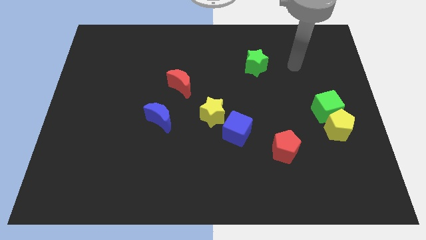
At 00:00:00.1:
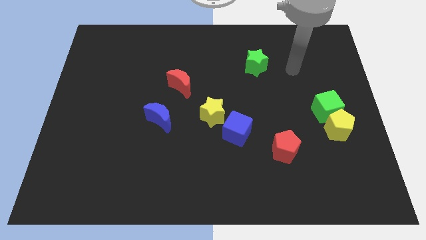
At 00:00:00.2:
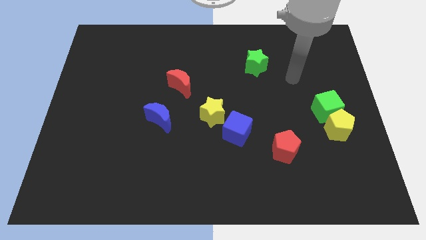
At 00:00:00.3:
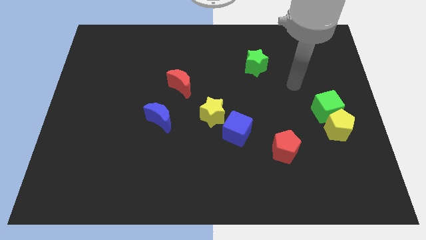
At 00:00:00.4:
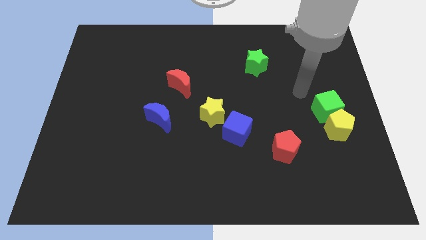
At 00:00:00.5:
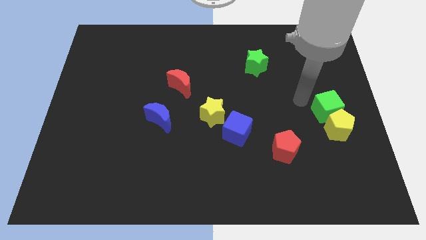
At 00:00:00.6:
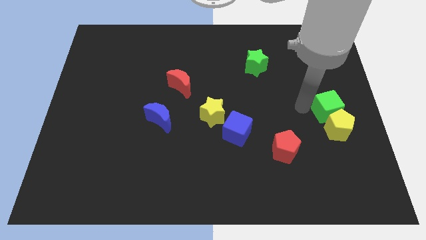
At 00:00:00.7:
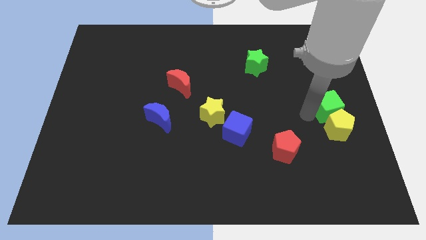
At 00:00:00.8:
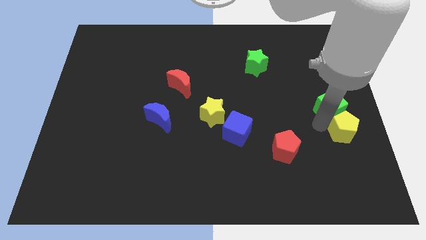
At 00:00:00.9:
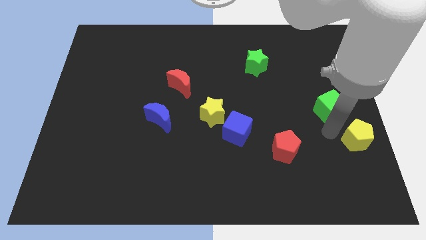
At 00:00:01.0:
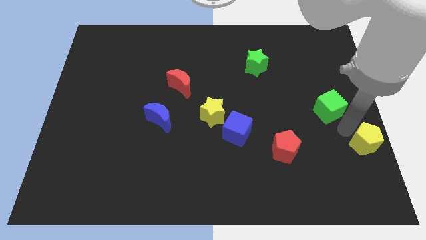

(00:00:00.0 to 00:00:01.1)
move the green cube away from the yellow pentagon

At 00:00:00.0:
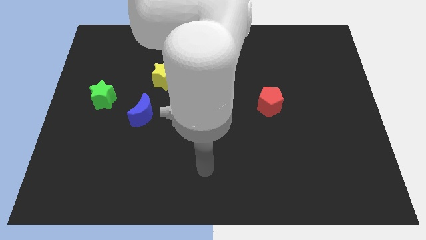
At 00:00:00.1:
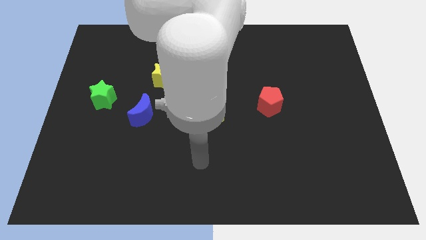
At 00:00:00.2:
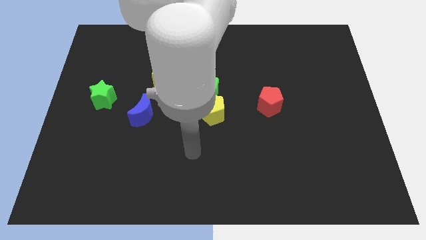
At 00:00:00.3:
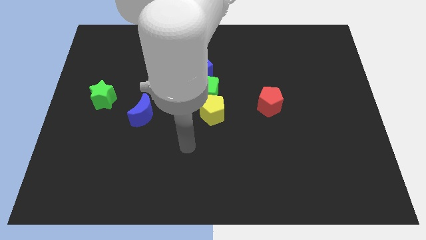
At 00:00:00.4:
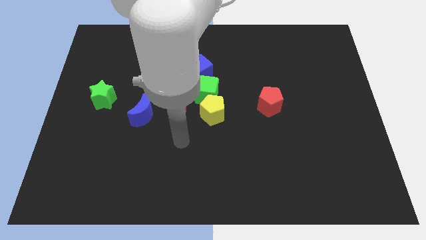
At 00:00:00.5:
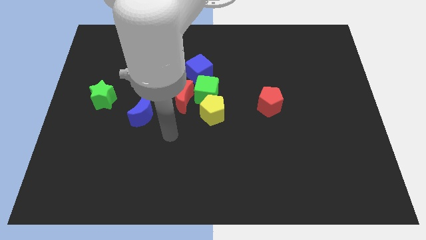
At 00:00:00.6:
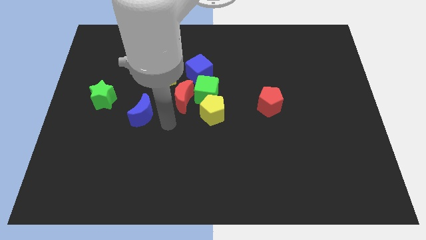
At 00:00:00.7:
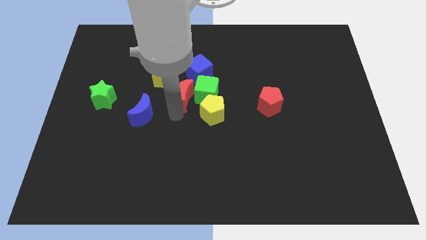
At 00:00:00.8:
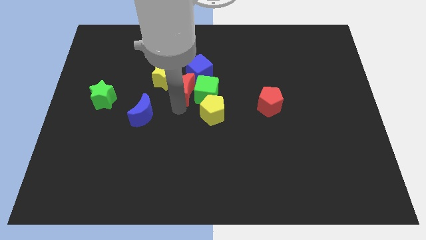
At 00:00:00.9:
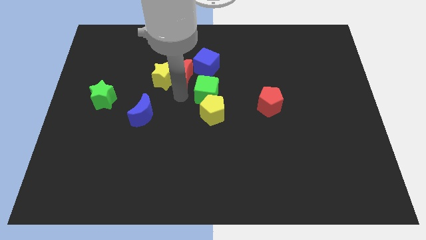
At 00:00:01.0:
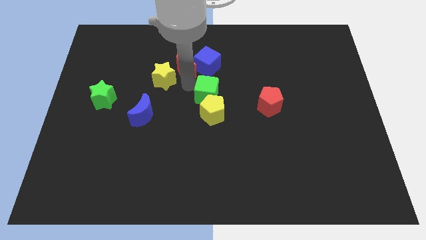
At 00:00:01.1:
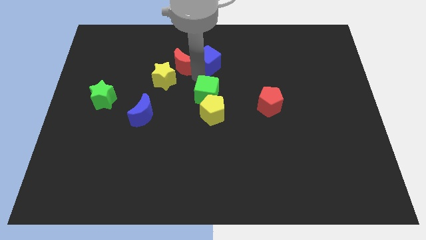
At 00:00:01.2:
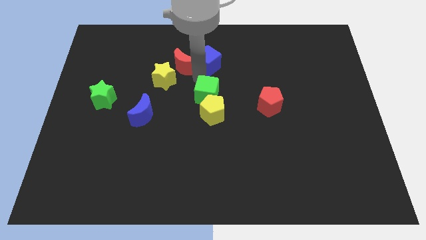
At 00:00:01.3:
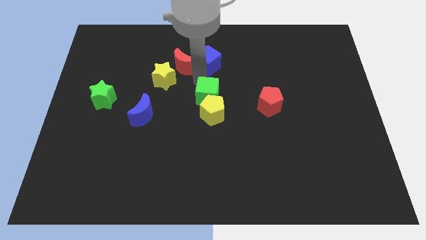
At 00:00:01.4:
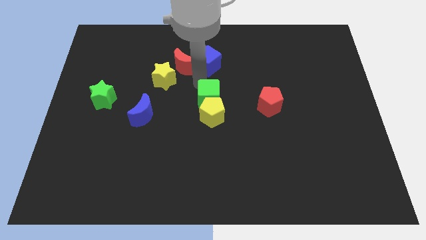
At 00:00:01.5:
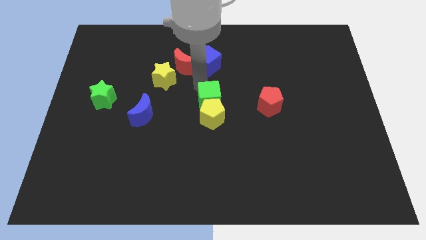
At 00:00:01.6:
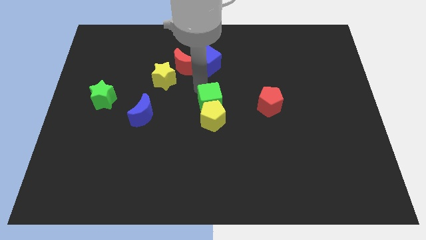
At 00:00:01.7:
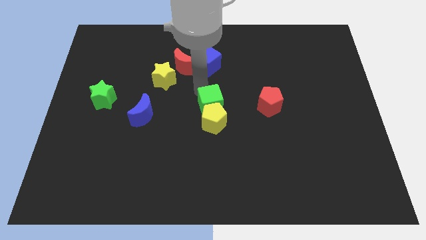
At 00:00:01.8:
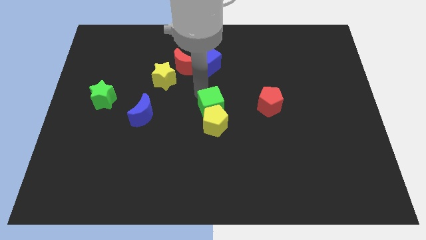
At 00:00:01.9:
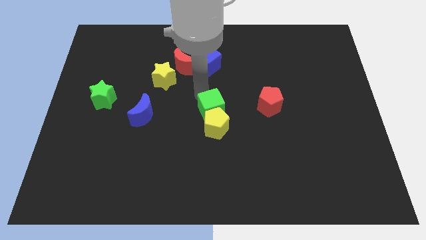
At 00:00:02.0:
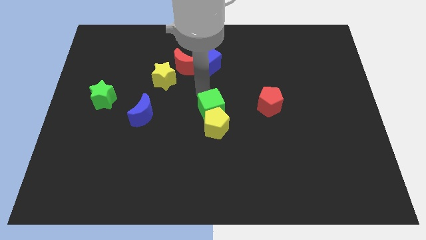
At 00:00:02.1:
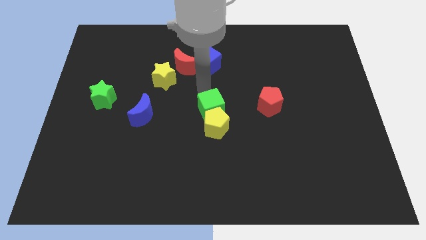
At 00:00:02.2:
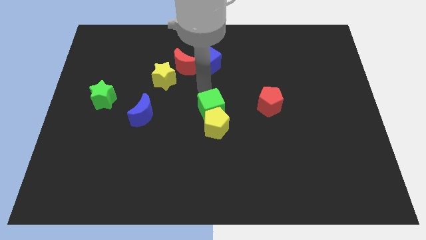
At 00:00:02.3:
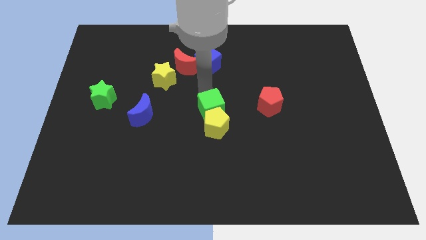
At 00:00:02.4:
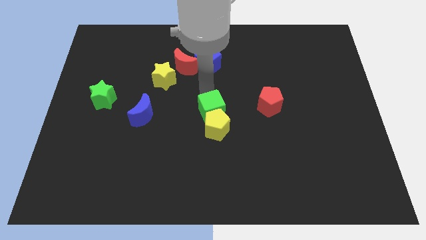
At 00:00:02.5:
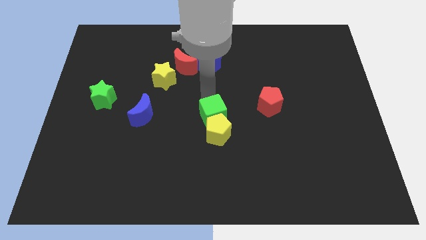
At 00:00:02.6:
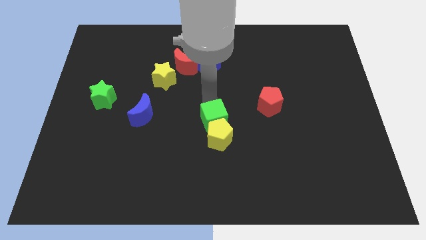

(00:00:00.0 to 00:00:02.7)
pull the green cube apart from the red moon, yellow pentagon, and blue cube

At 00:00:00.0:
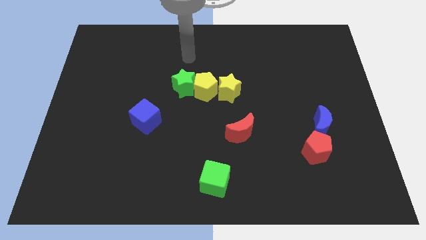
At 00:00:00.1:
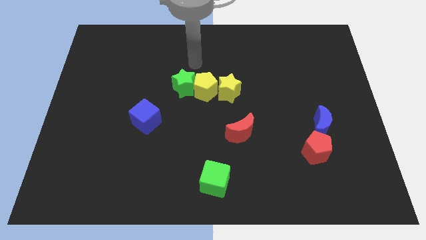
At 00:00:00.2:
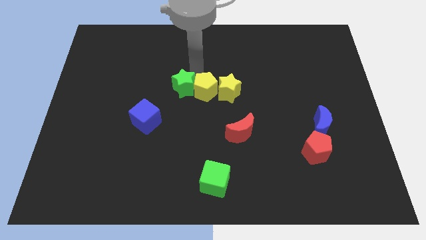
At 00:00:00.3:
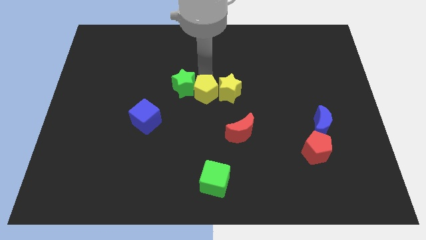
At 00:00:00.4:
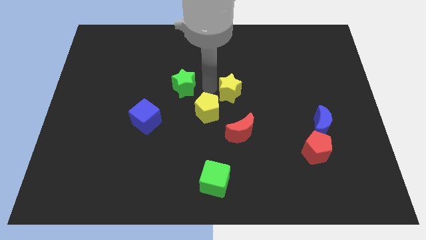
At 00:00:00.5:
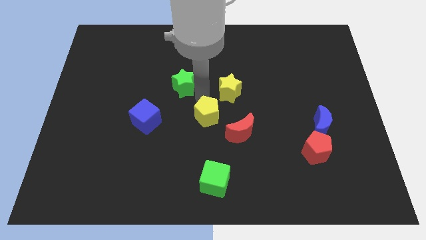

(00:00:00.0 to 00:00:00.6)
move the green star away from the yellow pentagon

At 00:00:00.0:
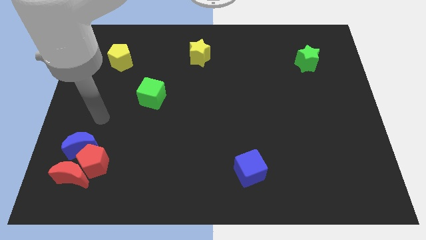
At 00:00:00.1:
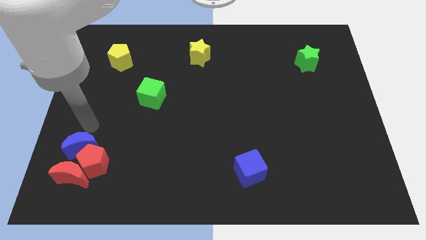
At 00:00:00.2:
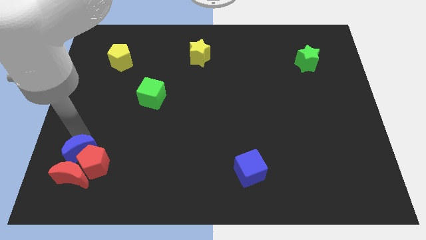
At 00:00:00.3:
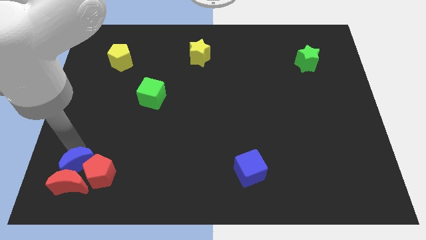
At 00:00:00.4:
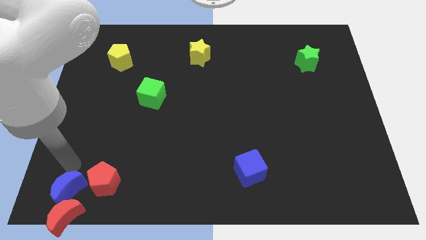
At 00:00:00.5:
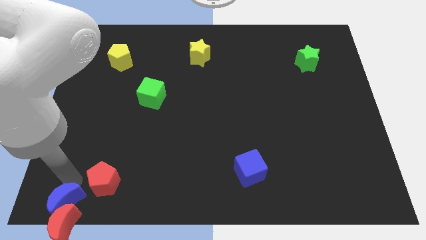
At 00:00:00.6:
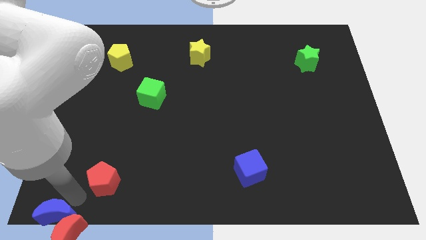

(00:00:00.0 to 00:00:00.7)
separate the red pentagon from the red moon and blue moon

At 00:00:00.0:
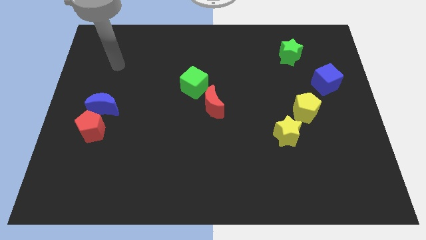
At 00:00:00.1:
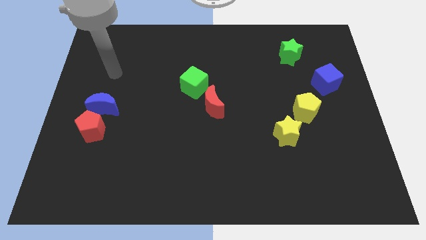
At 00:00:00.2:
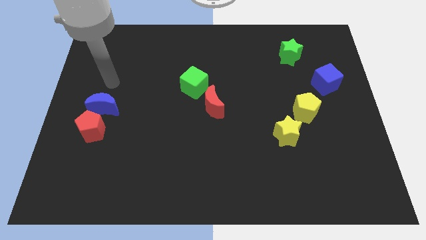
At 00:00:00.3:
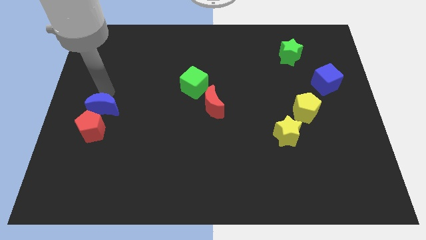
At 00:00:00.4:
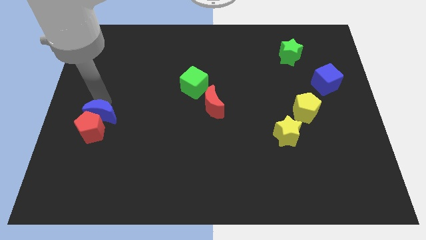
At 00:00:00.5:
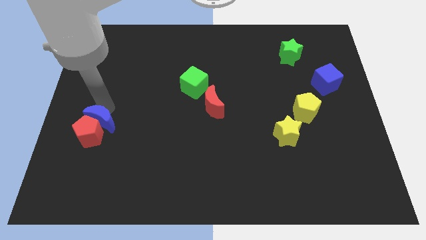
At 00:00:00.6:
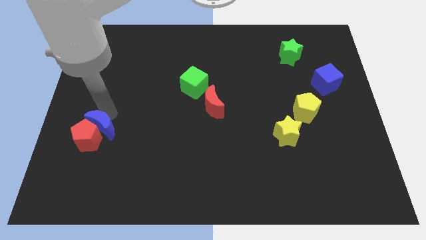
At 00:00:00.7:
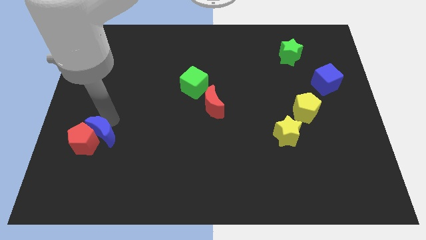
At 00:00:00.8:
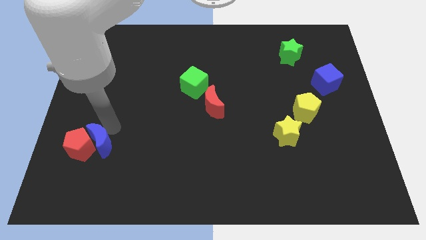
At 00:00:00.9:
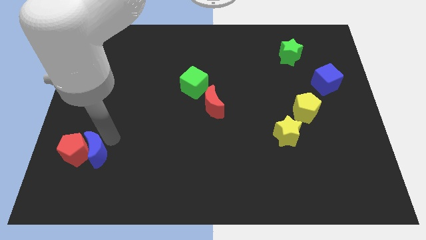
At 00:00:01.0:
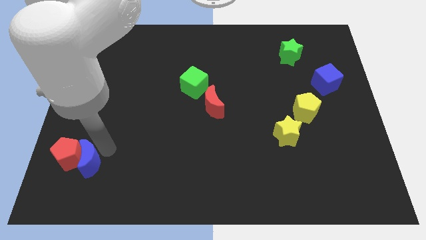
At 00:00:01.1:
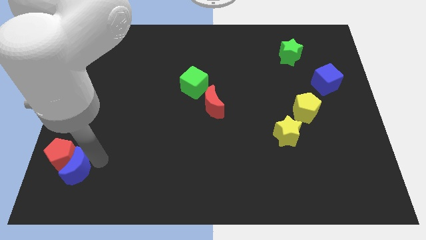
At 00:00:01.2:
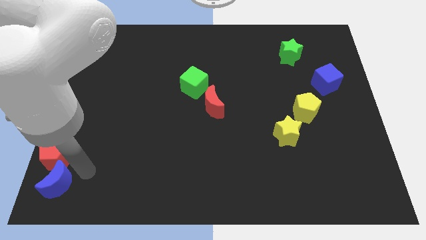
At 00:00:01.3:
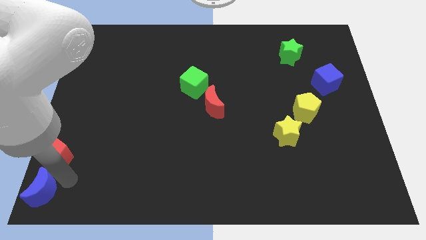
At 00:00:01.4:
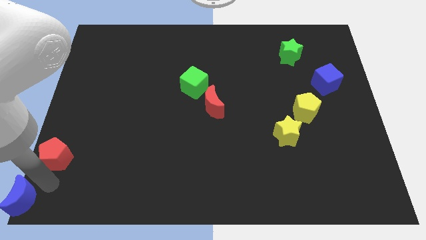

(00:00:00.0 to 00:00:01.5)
separate the red pentagon from the blue moon

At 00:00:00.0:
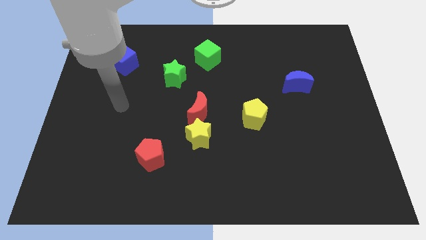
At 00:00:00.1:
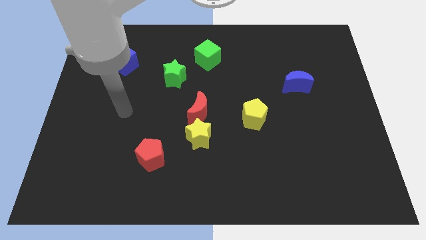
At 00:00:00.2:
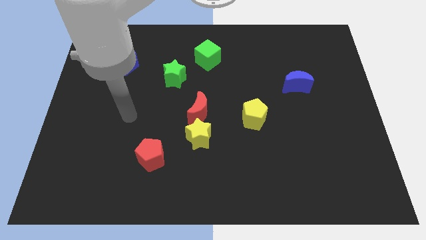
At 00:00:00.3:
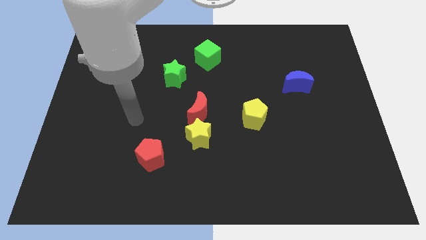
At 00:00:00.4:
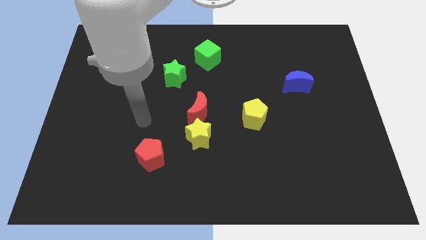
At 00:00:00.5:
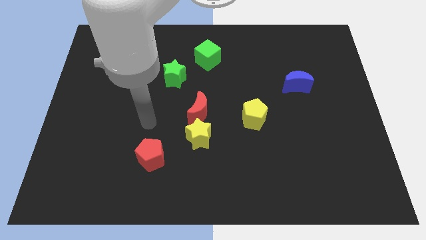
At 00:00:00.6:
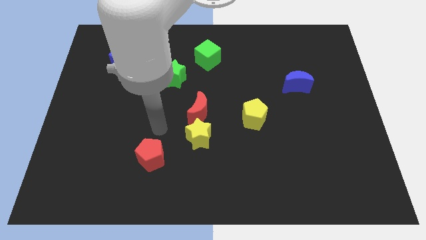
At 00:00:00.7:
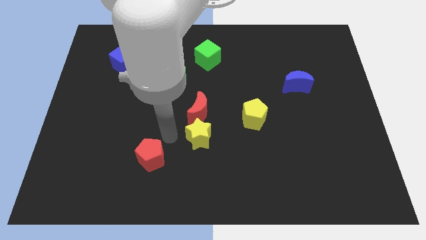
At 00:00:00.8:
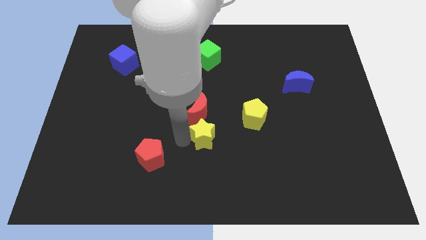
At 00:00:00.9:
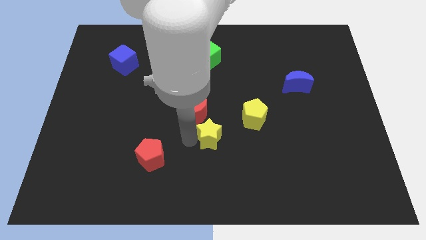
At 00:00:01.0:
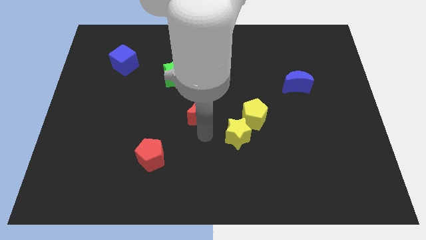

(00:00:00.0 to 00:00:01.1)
pull the red moon apart from the yellow star

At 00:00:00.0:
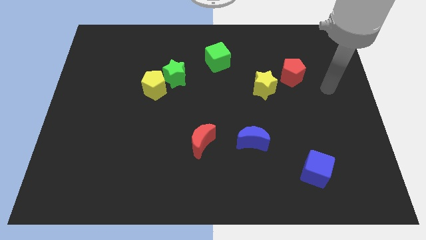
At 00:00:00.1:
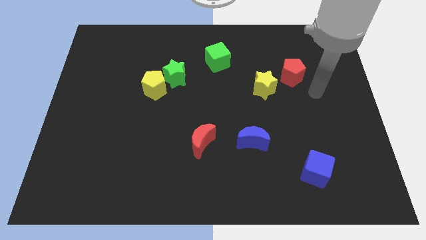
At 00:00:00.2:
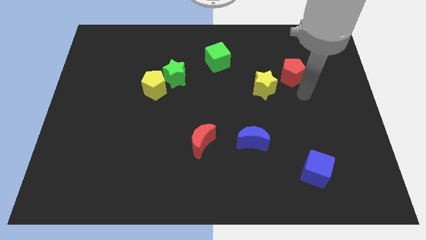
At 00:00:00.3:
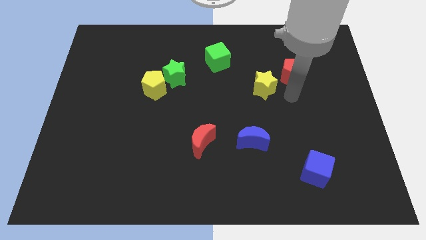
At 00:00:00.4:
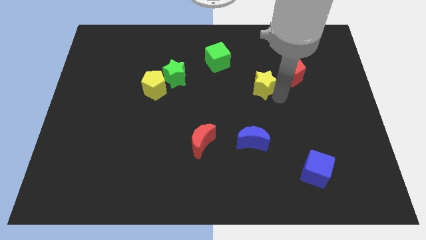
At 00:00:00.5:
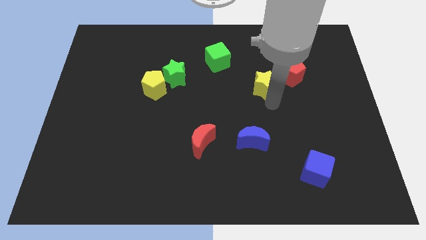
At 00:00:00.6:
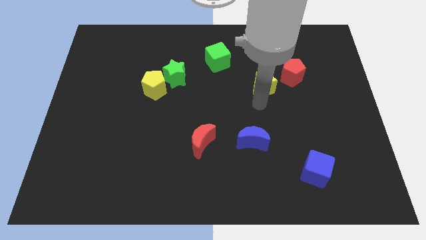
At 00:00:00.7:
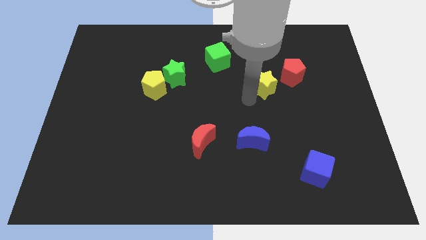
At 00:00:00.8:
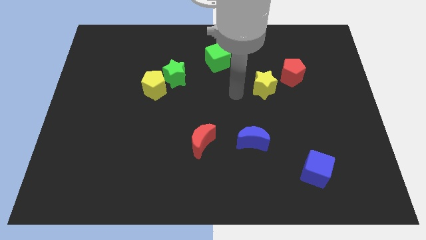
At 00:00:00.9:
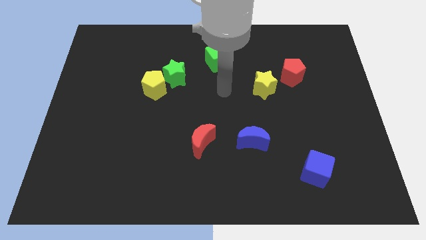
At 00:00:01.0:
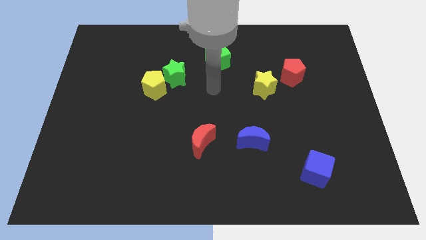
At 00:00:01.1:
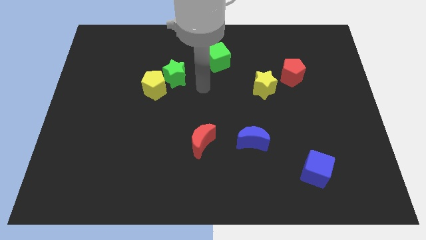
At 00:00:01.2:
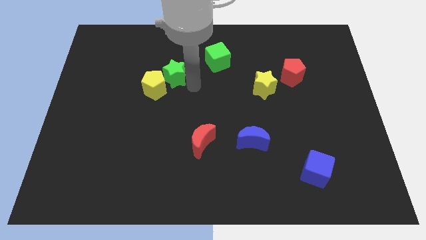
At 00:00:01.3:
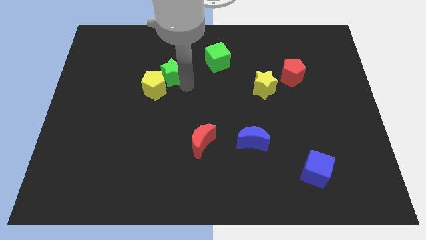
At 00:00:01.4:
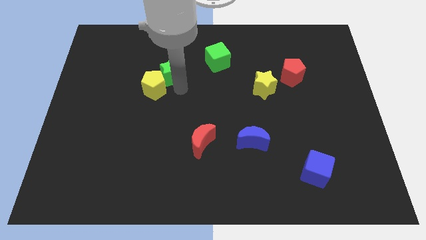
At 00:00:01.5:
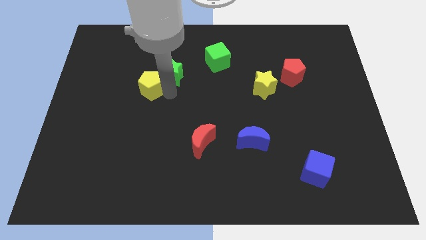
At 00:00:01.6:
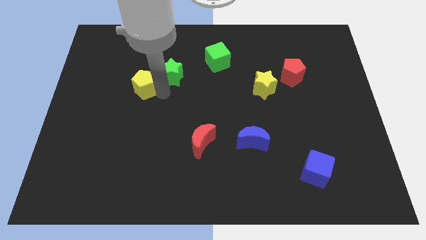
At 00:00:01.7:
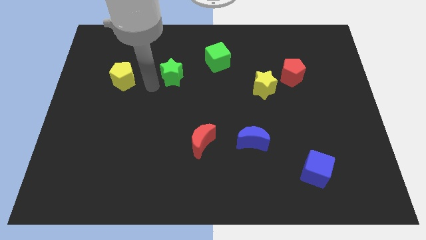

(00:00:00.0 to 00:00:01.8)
pull the green star apart from the yellow pentagon
